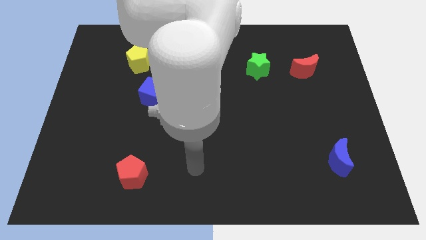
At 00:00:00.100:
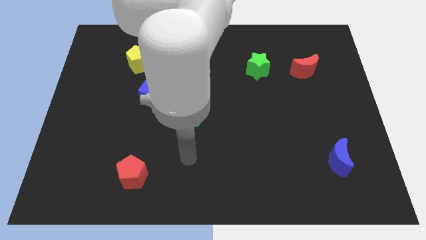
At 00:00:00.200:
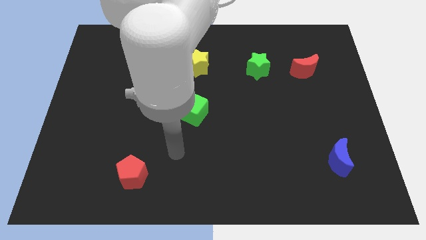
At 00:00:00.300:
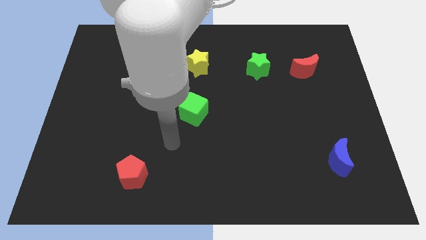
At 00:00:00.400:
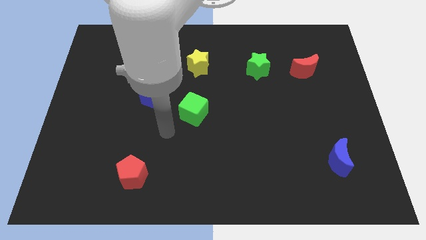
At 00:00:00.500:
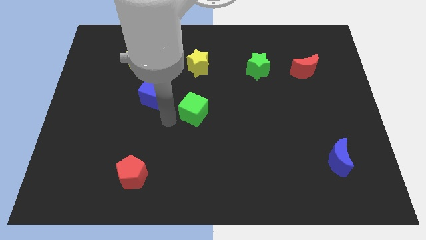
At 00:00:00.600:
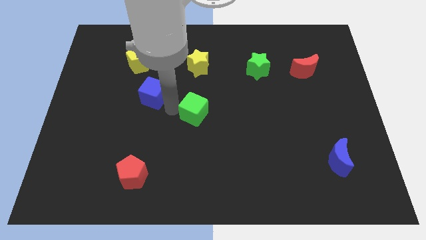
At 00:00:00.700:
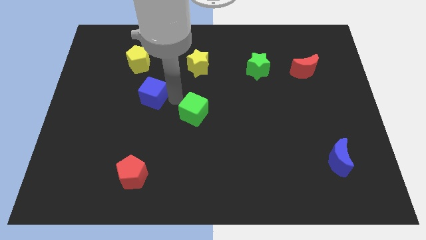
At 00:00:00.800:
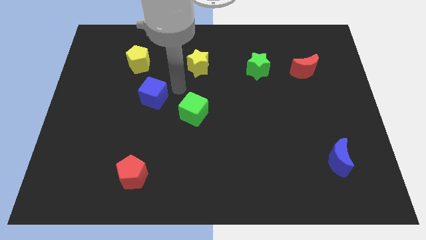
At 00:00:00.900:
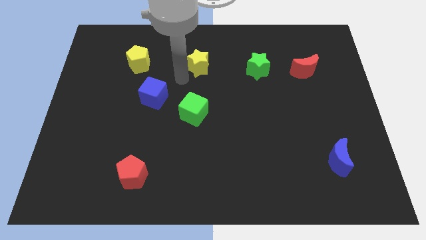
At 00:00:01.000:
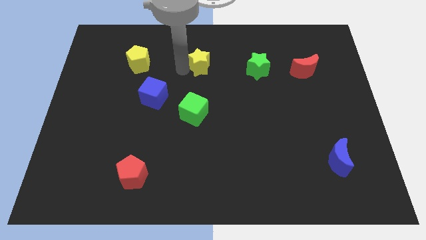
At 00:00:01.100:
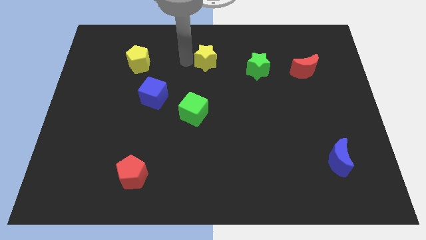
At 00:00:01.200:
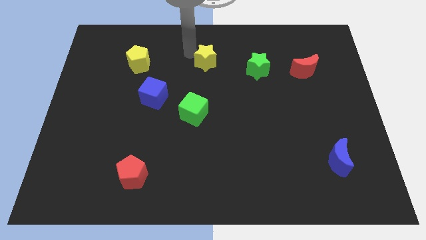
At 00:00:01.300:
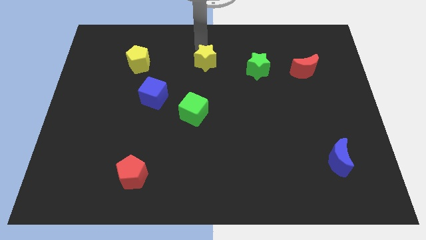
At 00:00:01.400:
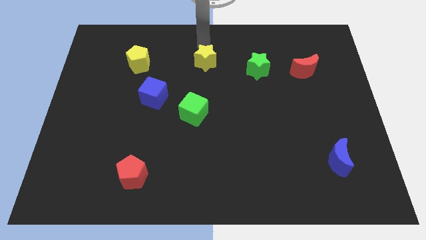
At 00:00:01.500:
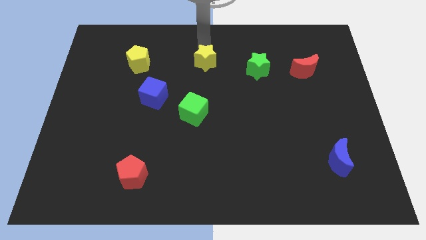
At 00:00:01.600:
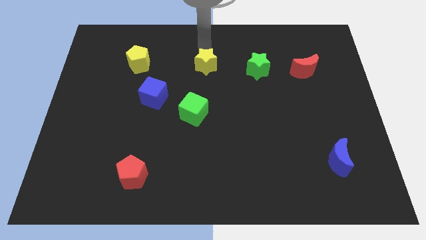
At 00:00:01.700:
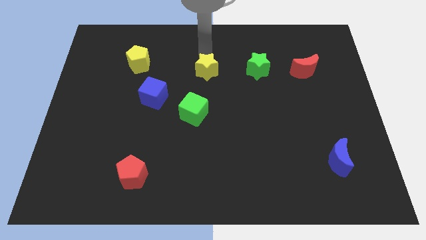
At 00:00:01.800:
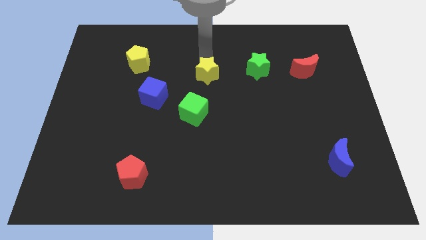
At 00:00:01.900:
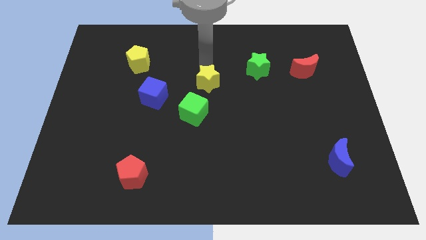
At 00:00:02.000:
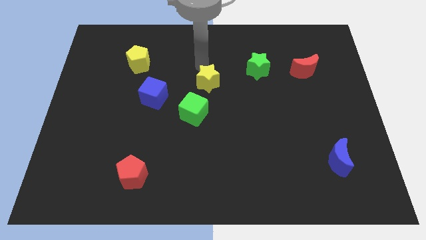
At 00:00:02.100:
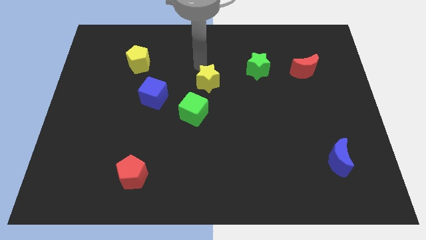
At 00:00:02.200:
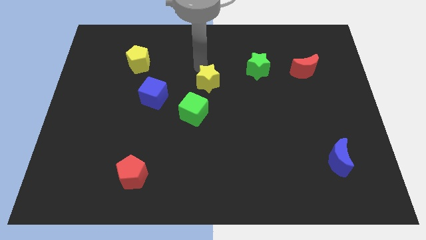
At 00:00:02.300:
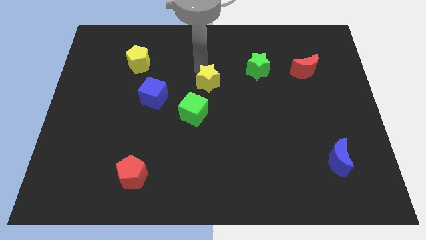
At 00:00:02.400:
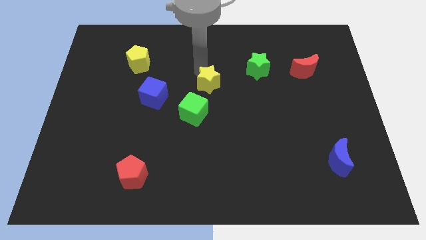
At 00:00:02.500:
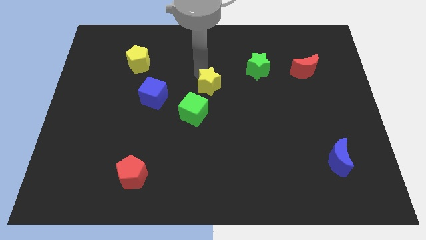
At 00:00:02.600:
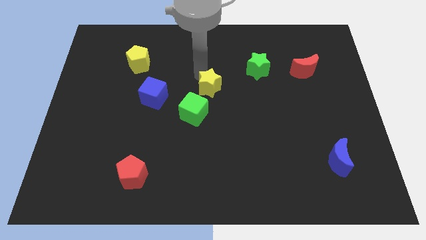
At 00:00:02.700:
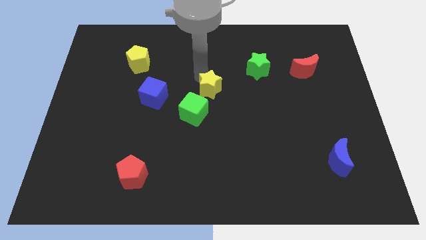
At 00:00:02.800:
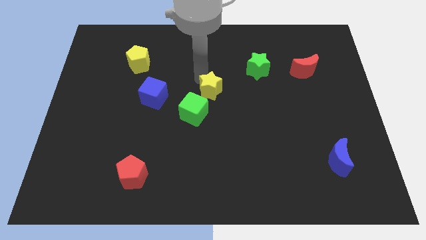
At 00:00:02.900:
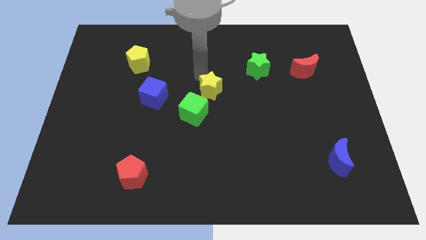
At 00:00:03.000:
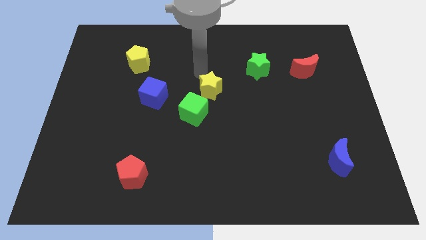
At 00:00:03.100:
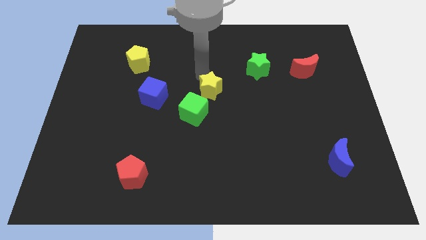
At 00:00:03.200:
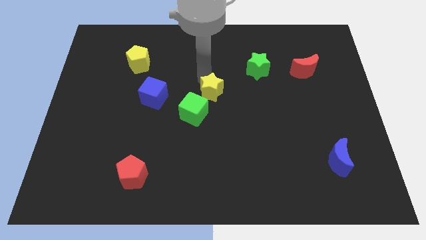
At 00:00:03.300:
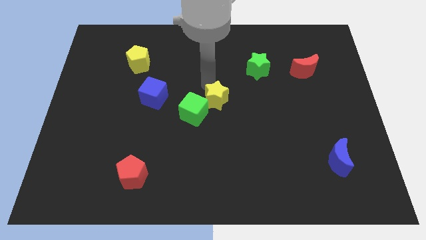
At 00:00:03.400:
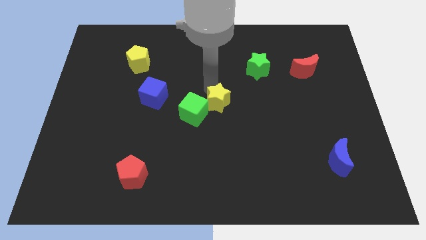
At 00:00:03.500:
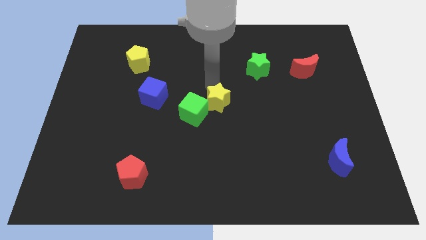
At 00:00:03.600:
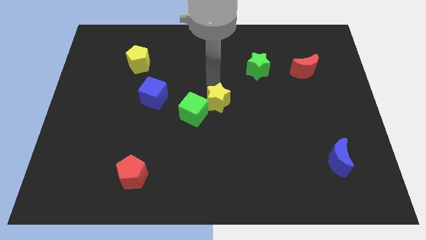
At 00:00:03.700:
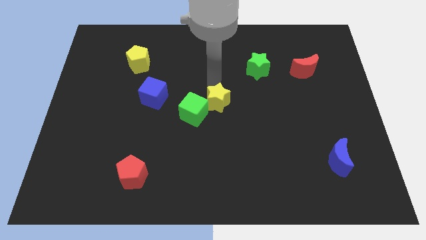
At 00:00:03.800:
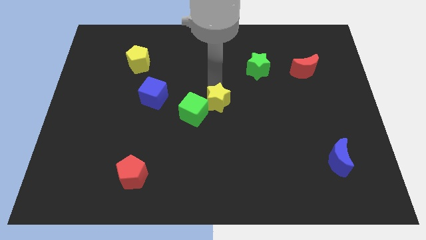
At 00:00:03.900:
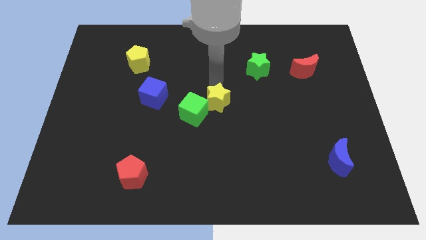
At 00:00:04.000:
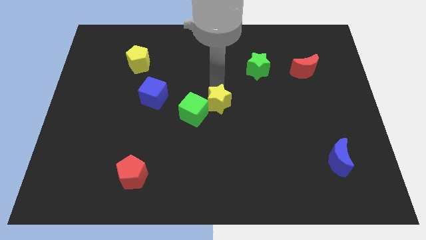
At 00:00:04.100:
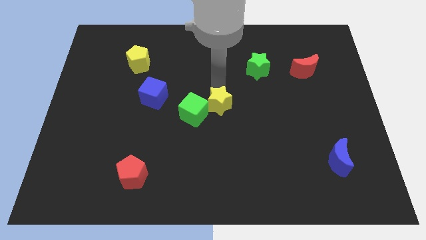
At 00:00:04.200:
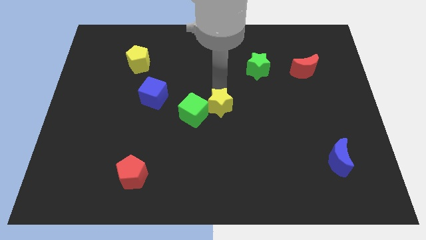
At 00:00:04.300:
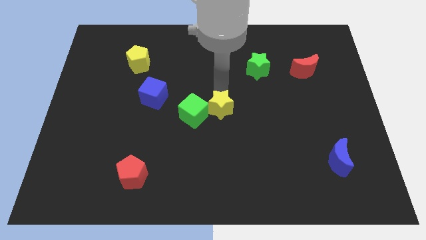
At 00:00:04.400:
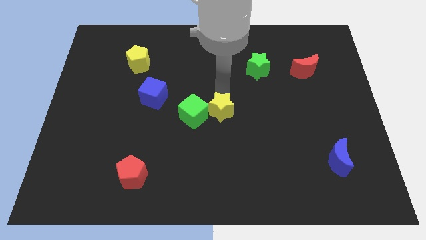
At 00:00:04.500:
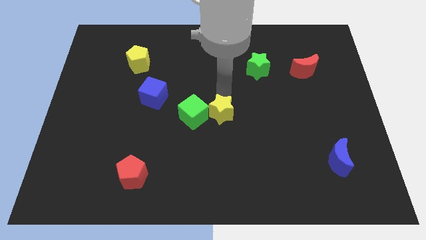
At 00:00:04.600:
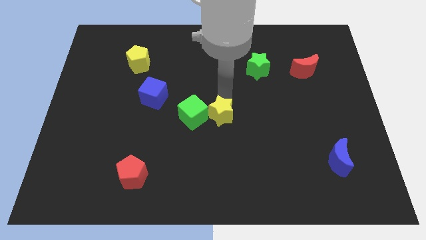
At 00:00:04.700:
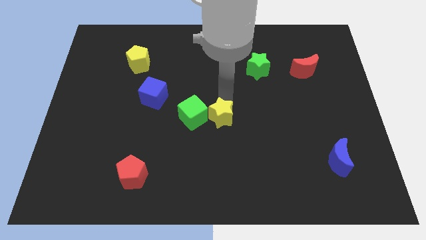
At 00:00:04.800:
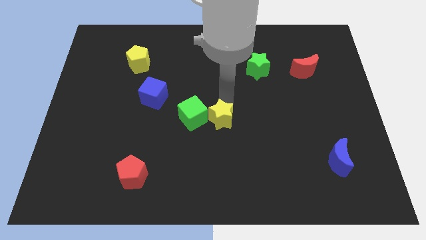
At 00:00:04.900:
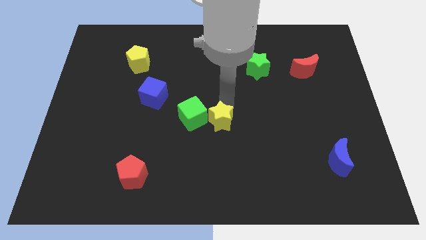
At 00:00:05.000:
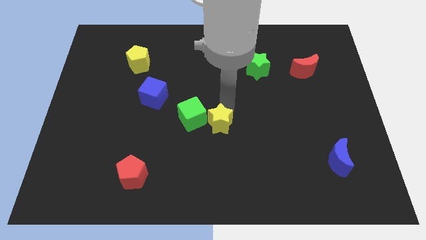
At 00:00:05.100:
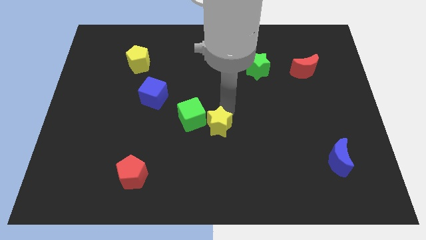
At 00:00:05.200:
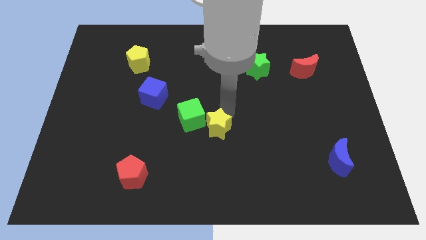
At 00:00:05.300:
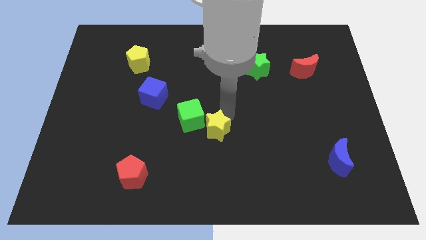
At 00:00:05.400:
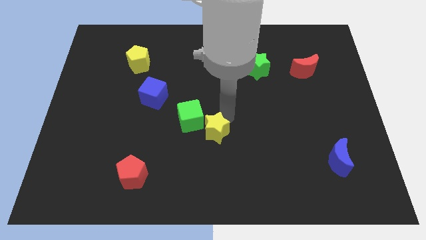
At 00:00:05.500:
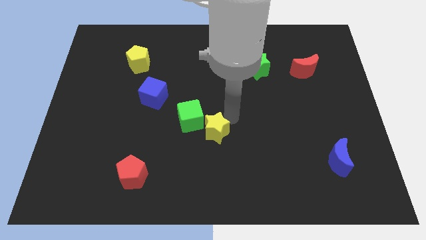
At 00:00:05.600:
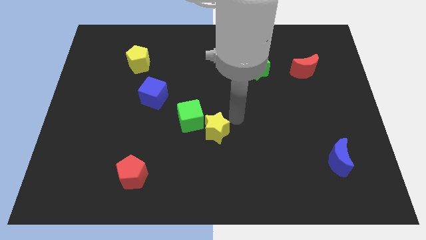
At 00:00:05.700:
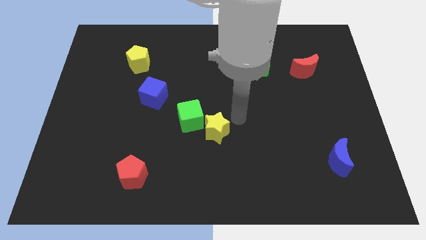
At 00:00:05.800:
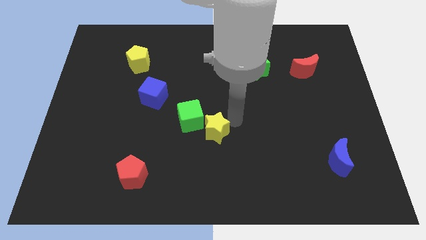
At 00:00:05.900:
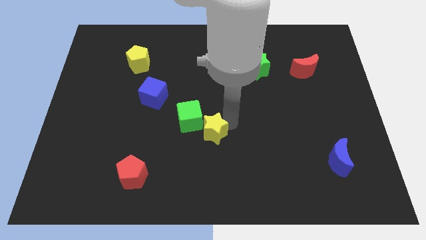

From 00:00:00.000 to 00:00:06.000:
move the yellow star downwards

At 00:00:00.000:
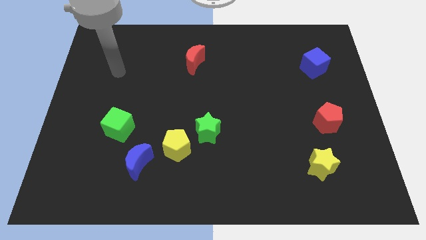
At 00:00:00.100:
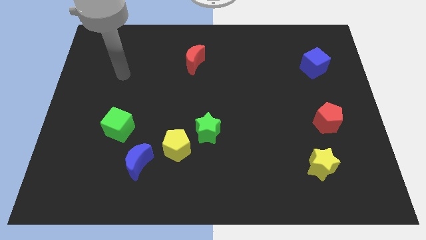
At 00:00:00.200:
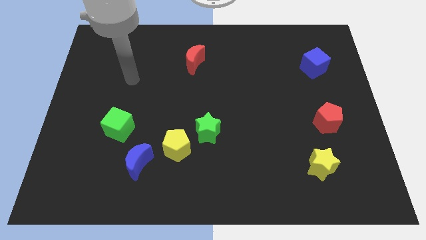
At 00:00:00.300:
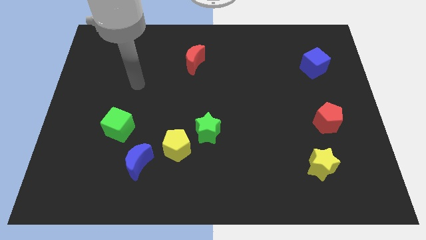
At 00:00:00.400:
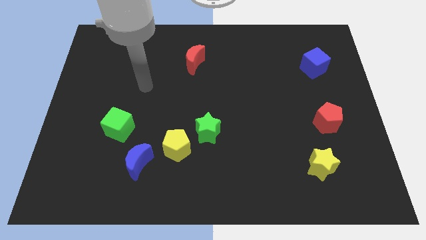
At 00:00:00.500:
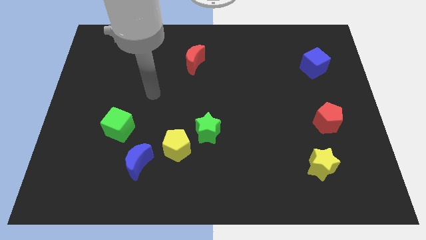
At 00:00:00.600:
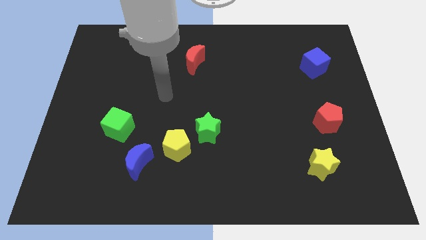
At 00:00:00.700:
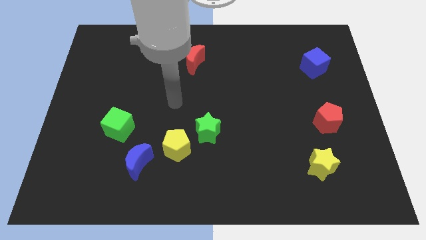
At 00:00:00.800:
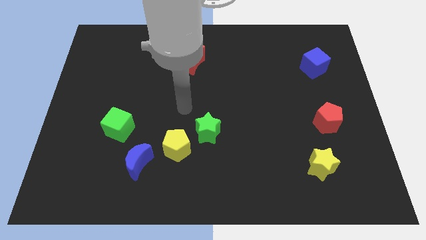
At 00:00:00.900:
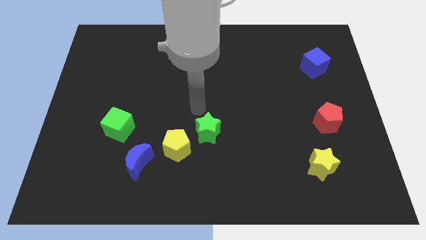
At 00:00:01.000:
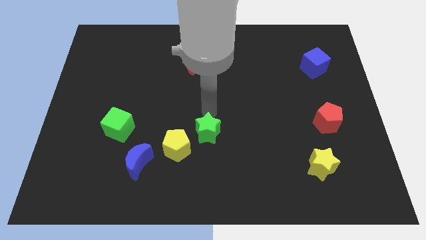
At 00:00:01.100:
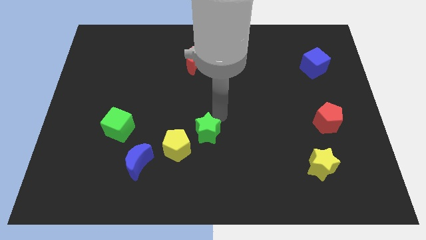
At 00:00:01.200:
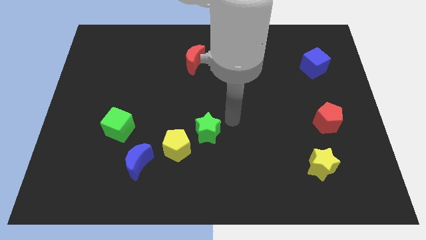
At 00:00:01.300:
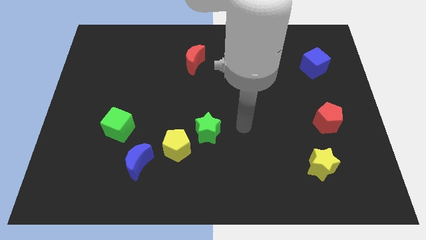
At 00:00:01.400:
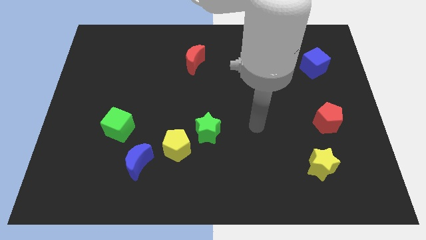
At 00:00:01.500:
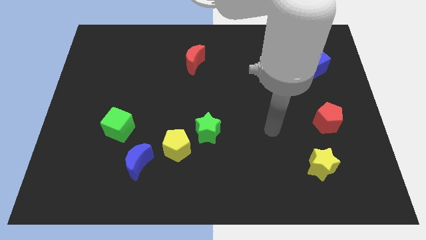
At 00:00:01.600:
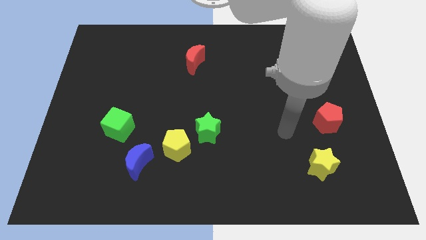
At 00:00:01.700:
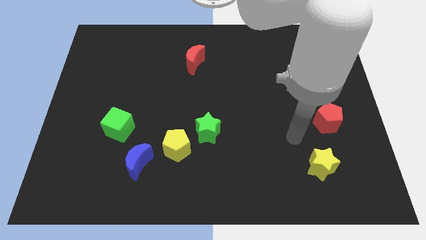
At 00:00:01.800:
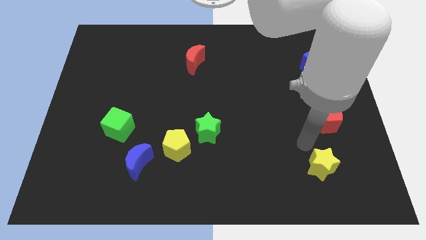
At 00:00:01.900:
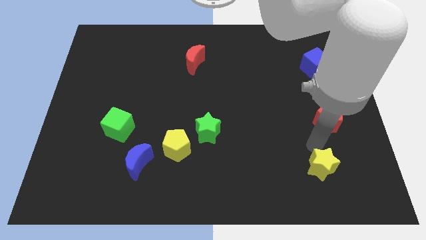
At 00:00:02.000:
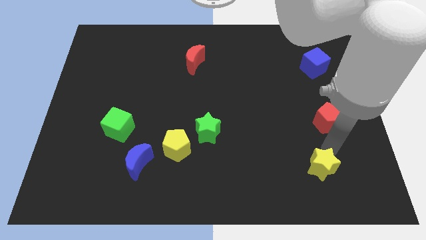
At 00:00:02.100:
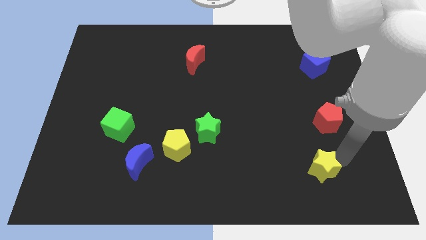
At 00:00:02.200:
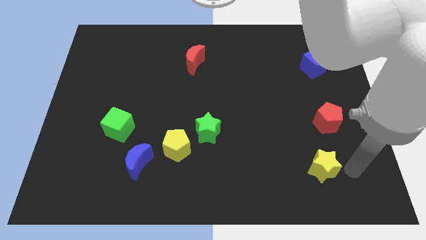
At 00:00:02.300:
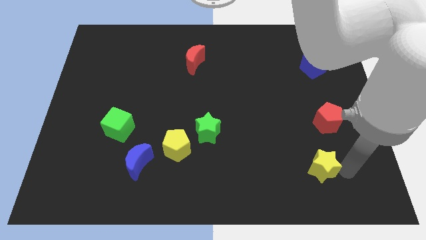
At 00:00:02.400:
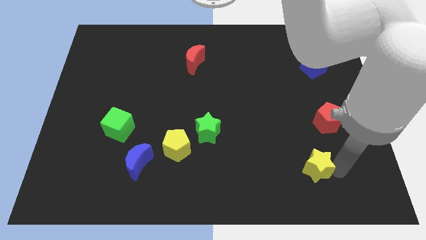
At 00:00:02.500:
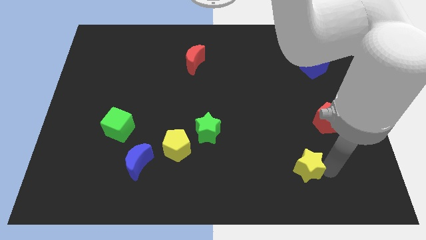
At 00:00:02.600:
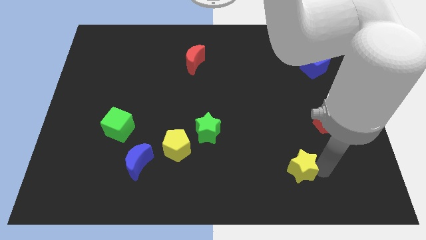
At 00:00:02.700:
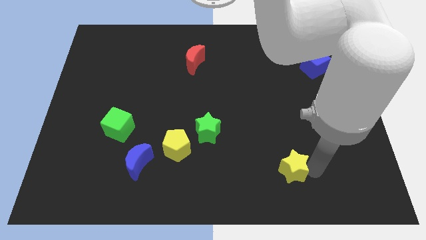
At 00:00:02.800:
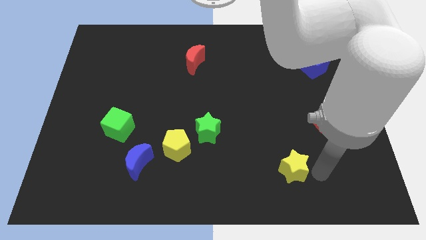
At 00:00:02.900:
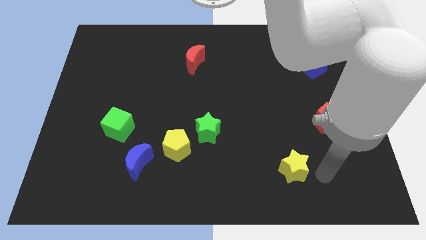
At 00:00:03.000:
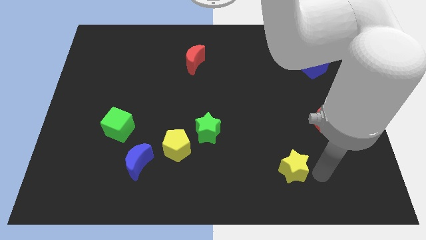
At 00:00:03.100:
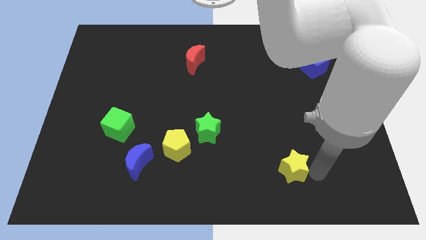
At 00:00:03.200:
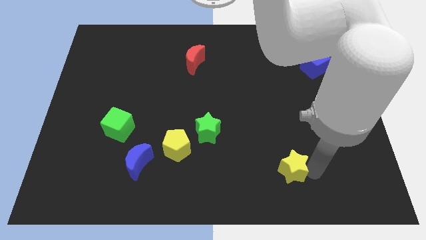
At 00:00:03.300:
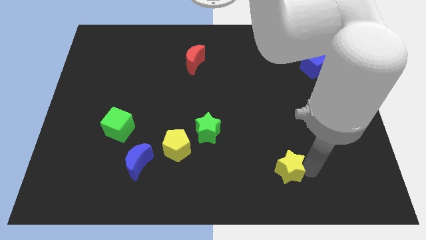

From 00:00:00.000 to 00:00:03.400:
slide the yellow star left a little bit
